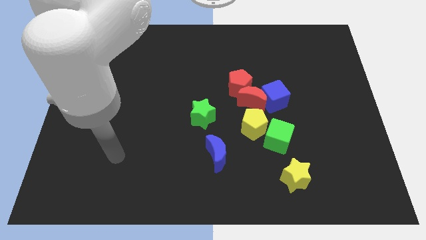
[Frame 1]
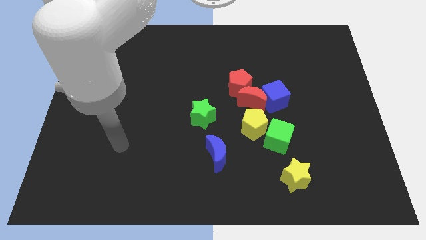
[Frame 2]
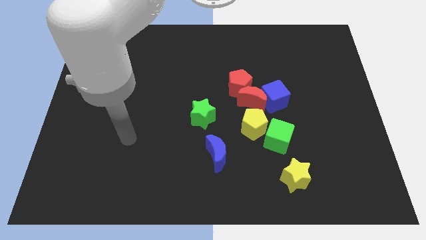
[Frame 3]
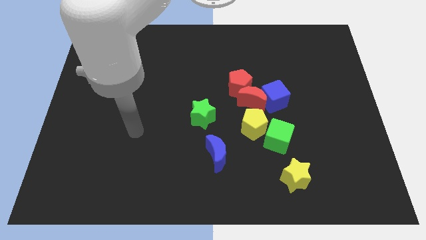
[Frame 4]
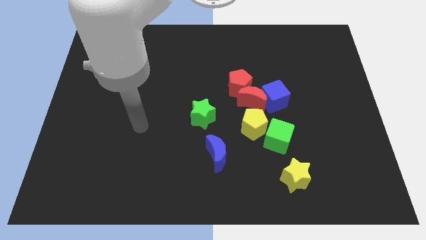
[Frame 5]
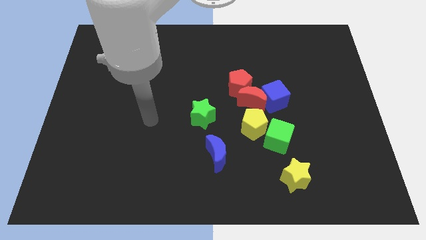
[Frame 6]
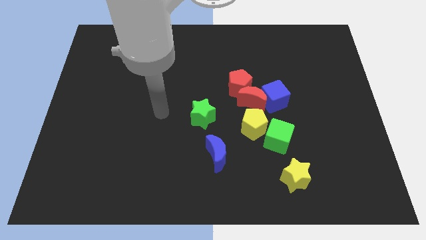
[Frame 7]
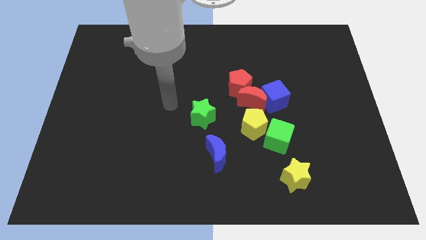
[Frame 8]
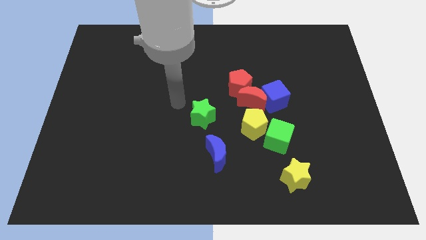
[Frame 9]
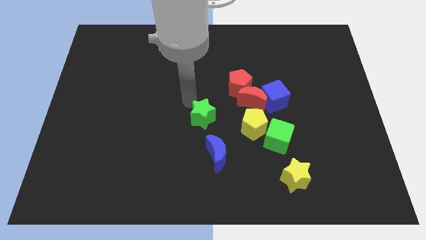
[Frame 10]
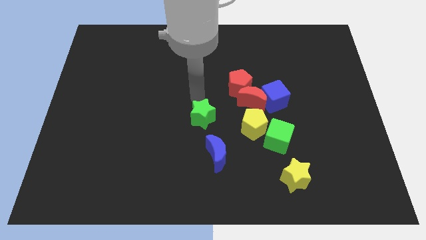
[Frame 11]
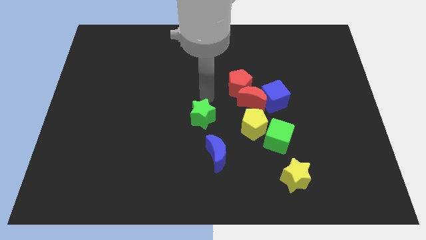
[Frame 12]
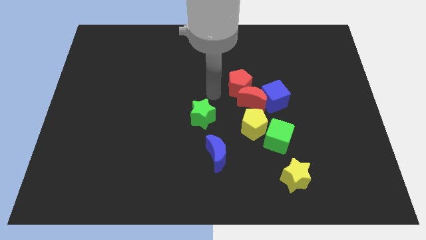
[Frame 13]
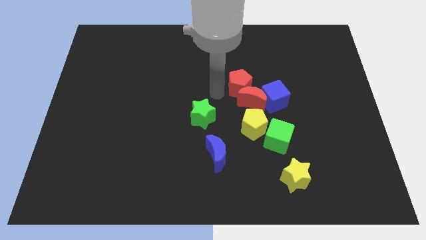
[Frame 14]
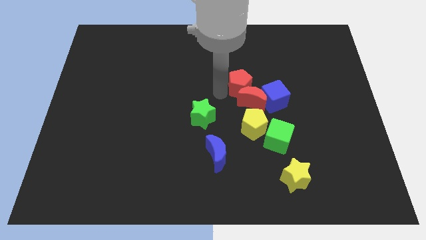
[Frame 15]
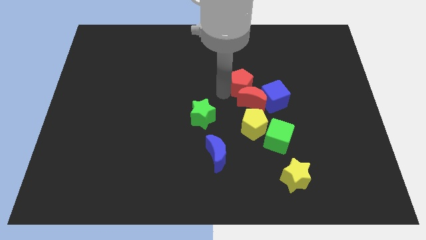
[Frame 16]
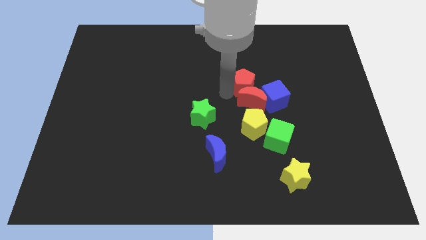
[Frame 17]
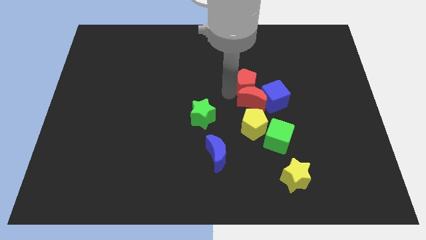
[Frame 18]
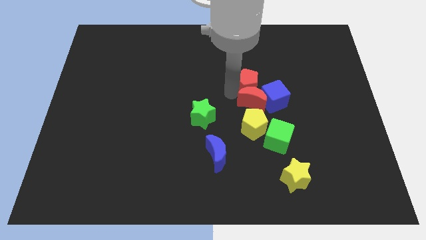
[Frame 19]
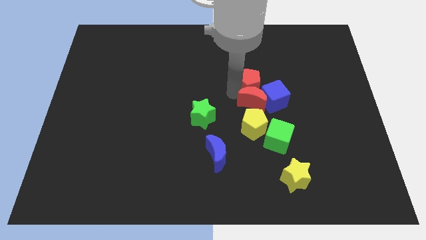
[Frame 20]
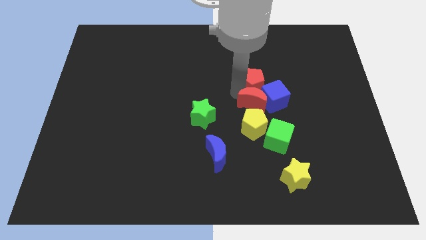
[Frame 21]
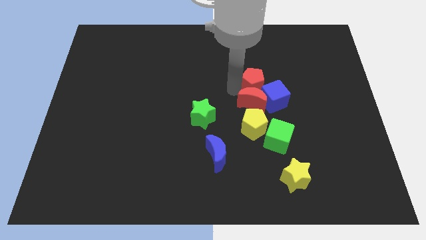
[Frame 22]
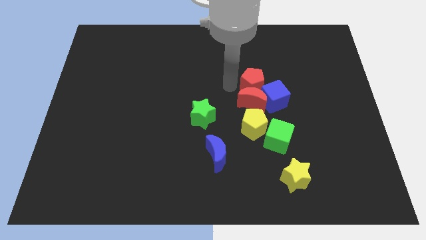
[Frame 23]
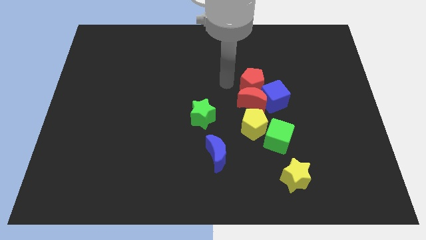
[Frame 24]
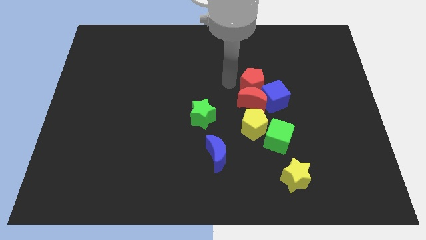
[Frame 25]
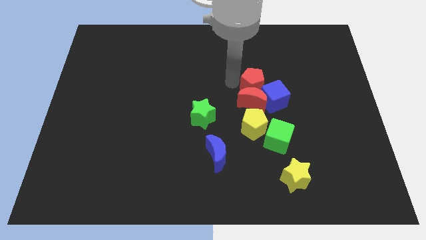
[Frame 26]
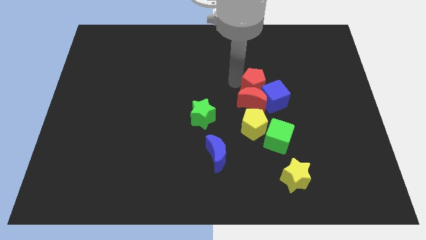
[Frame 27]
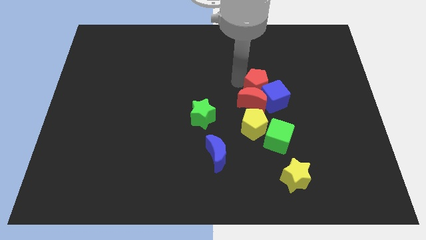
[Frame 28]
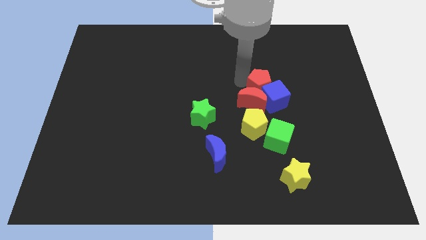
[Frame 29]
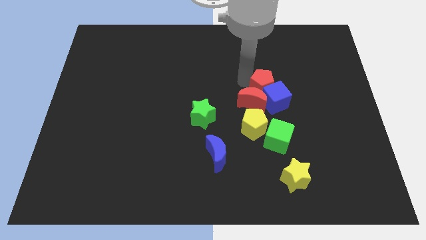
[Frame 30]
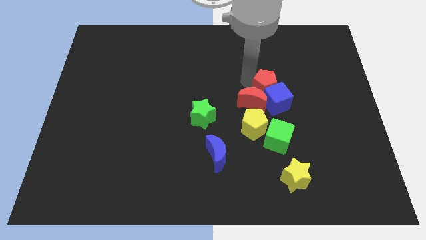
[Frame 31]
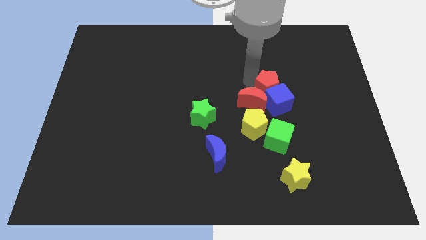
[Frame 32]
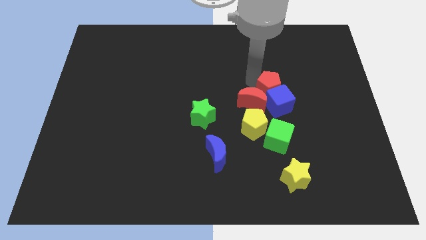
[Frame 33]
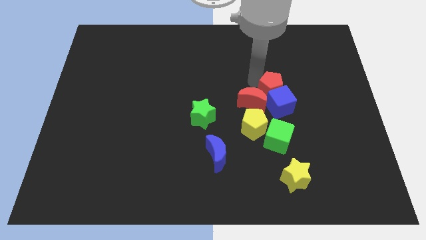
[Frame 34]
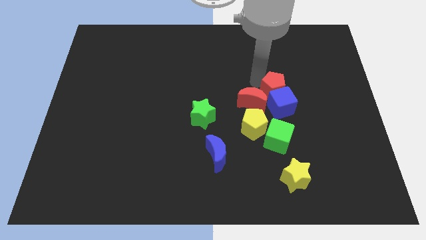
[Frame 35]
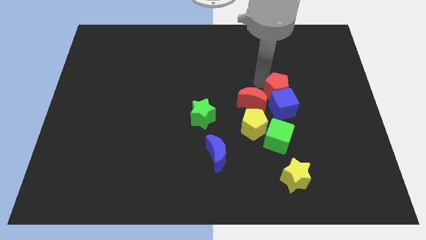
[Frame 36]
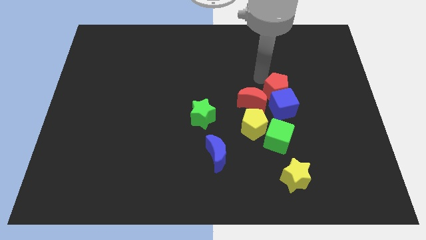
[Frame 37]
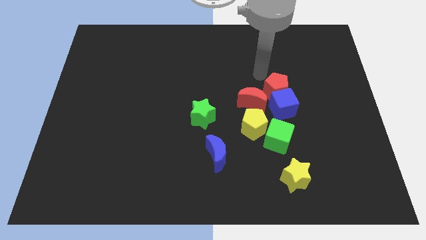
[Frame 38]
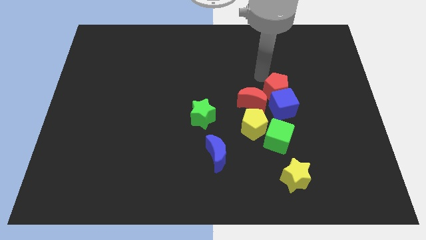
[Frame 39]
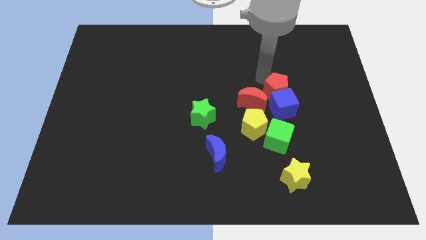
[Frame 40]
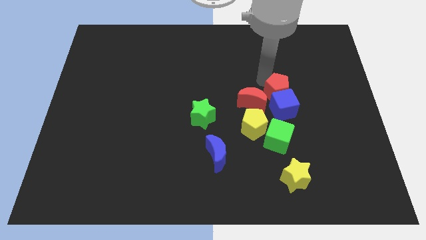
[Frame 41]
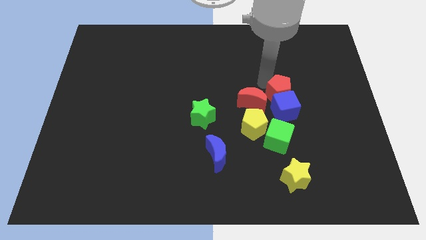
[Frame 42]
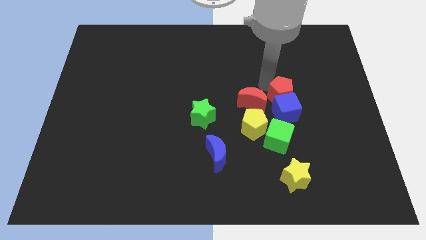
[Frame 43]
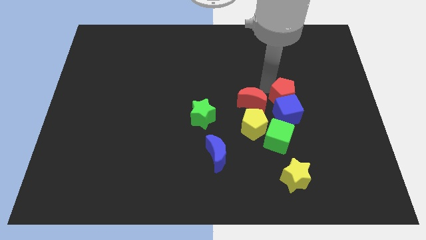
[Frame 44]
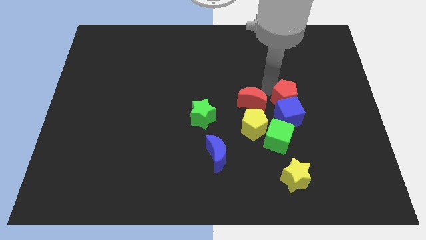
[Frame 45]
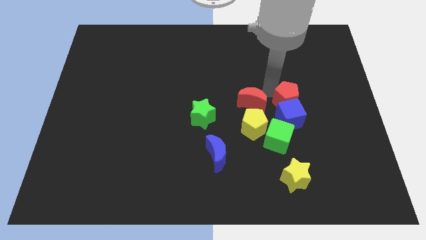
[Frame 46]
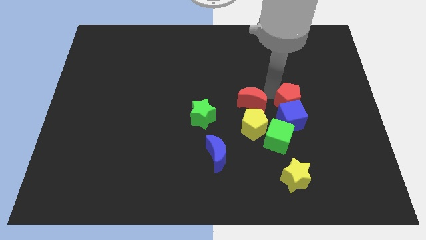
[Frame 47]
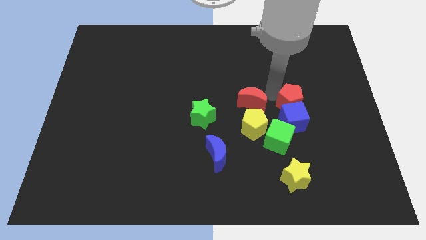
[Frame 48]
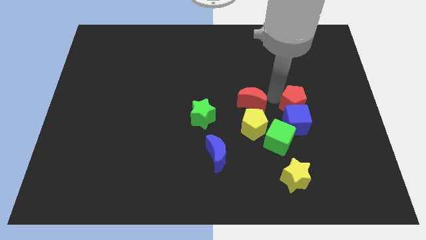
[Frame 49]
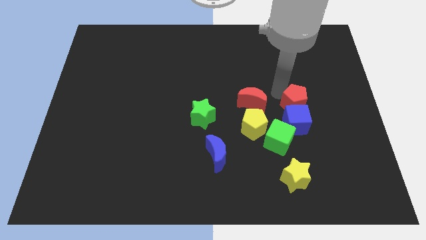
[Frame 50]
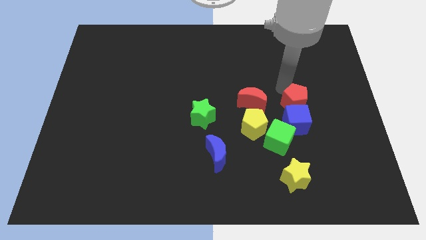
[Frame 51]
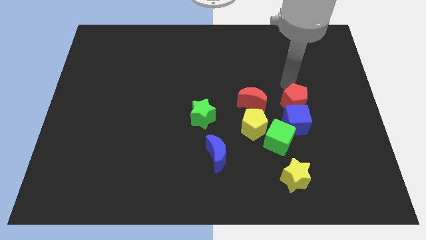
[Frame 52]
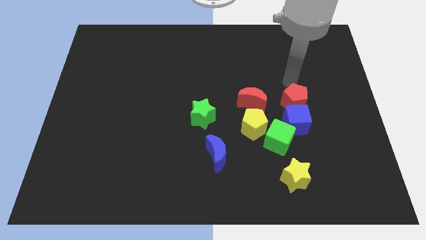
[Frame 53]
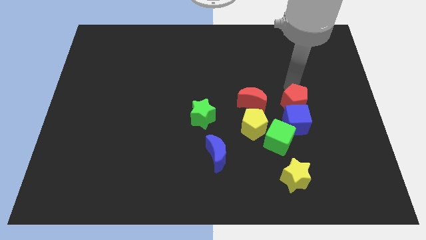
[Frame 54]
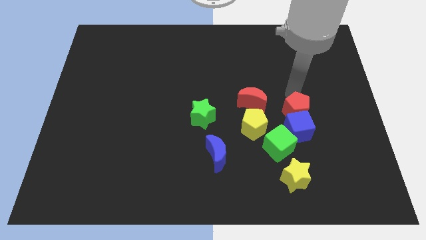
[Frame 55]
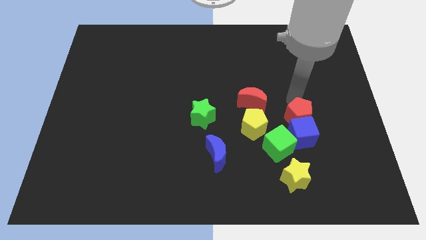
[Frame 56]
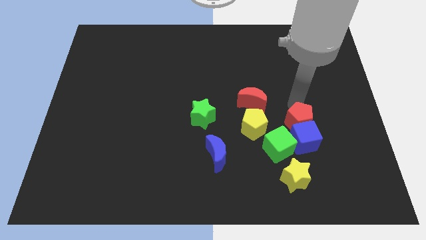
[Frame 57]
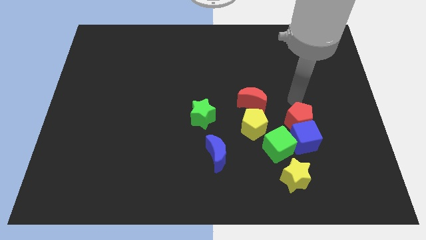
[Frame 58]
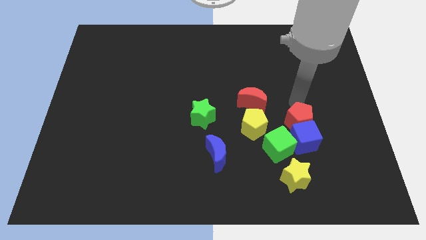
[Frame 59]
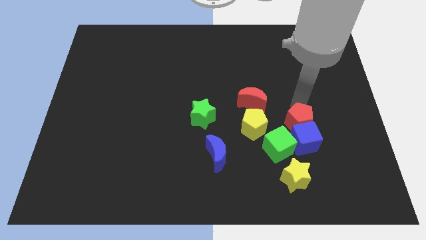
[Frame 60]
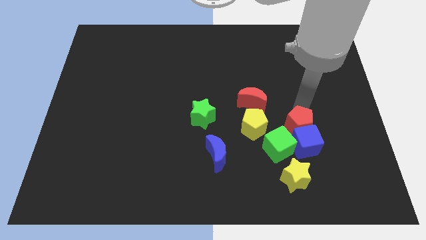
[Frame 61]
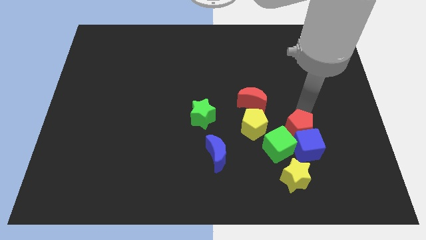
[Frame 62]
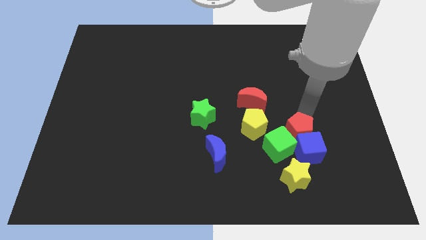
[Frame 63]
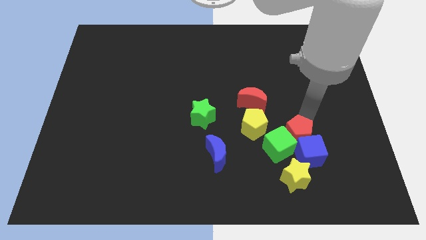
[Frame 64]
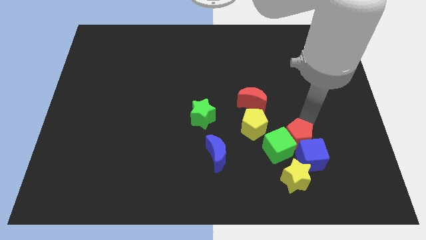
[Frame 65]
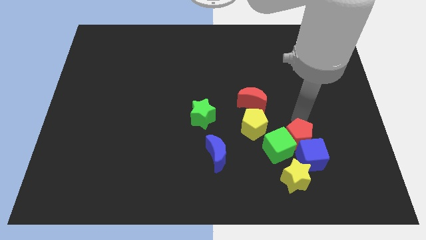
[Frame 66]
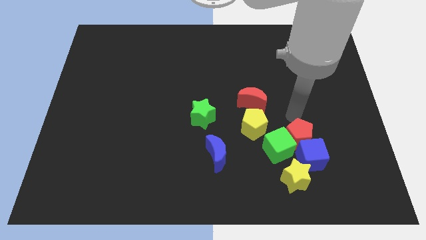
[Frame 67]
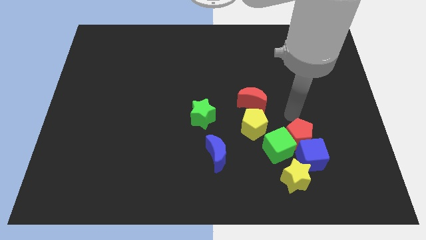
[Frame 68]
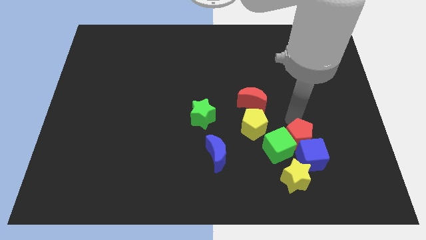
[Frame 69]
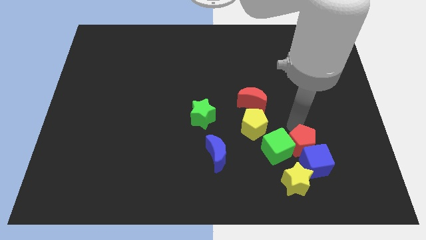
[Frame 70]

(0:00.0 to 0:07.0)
push the red pentagon diagonally down and to the right of the green cube

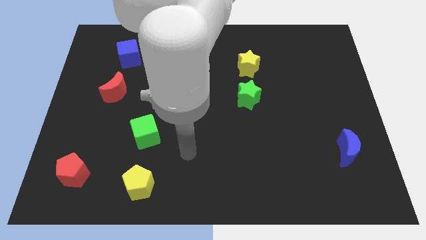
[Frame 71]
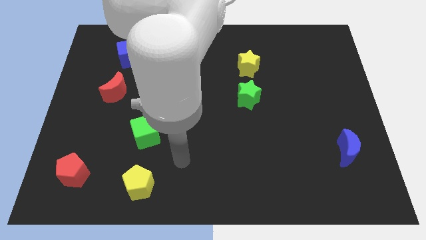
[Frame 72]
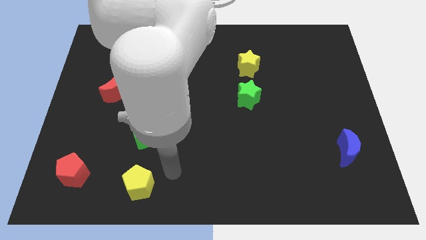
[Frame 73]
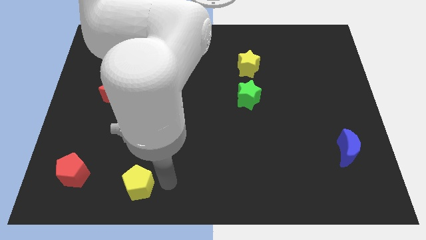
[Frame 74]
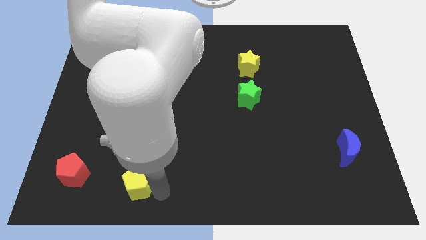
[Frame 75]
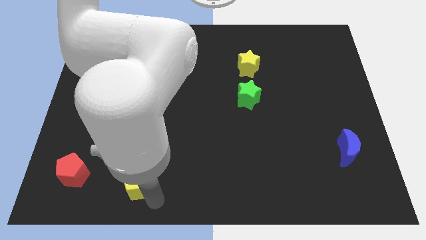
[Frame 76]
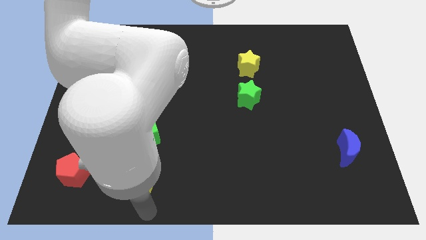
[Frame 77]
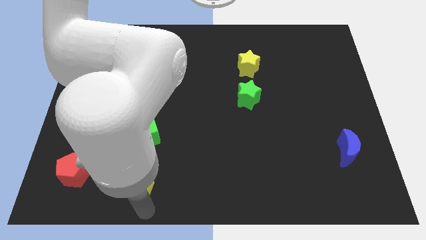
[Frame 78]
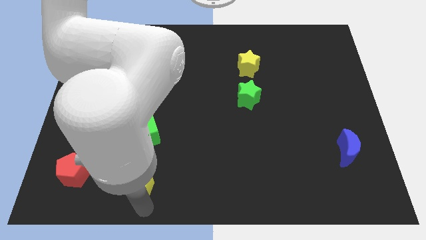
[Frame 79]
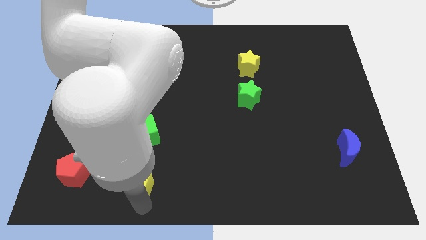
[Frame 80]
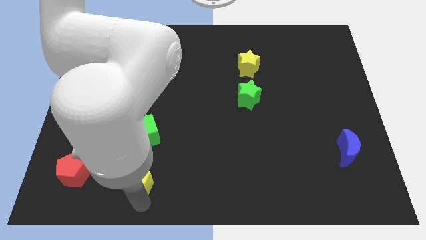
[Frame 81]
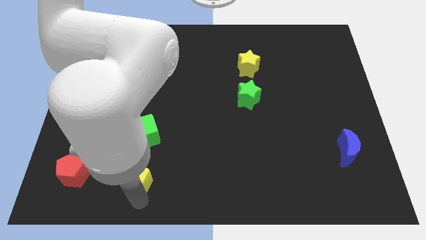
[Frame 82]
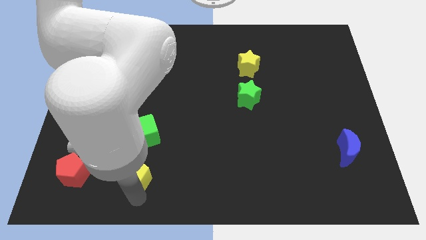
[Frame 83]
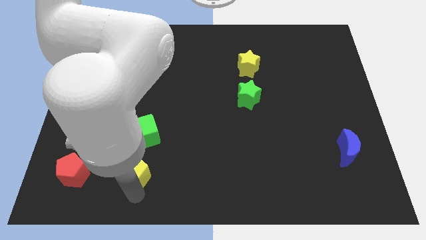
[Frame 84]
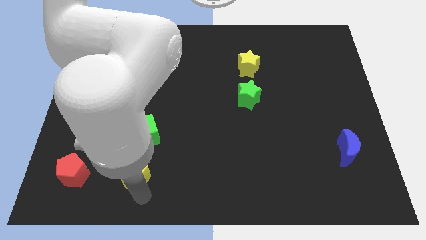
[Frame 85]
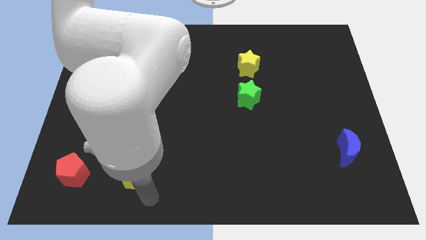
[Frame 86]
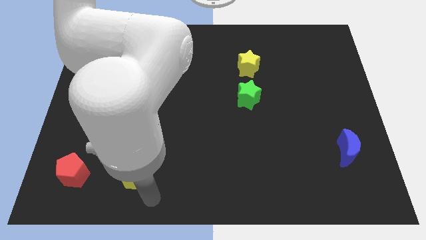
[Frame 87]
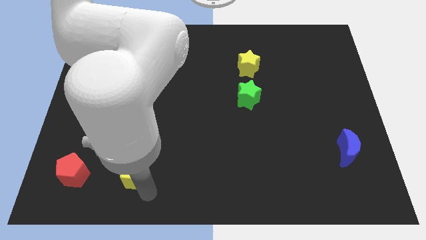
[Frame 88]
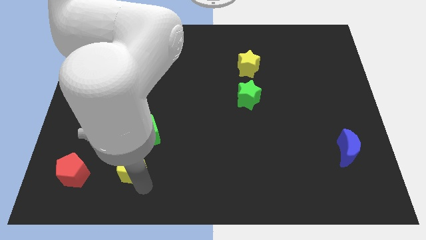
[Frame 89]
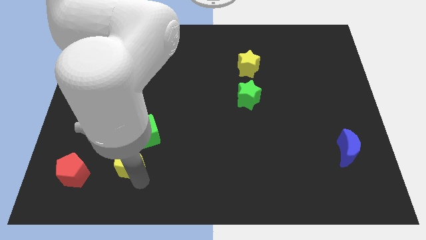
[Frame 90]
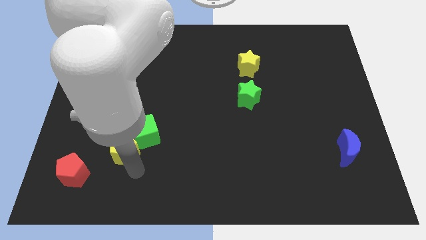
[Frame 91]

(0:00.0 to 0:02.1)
slide the yellow pentagon to the left side of the green cube
